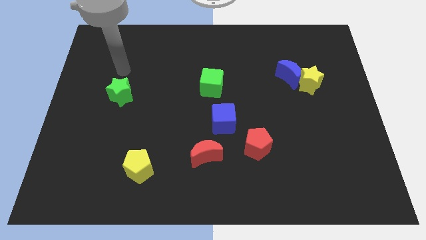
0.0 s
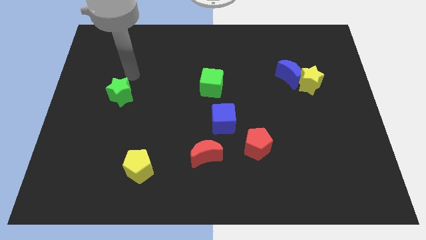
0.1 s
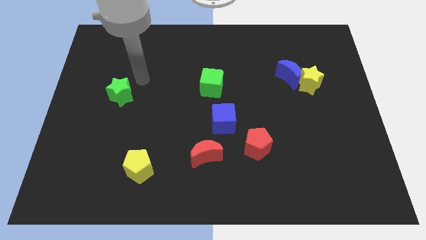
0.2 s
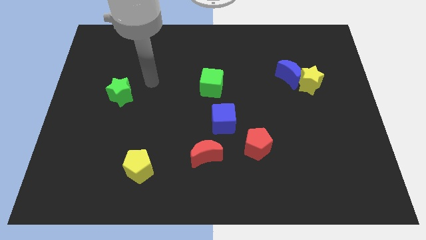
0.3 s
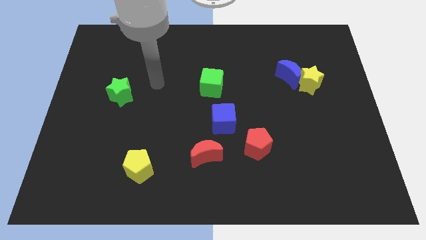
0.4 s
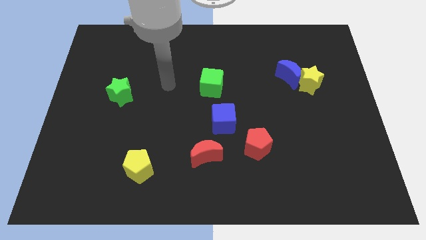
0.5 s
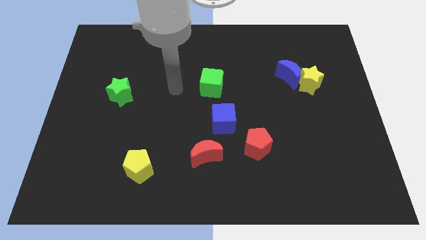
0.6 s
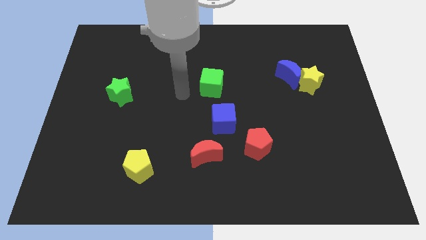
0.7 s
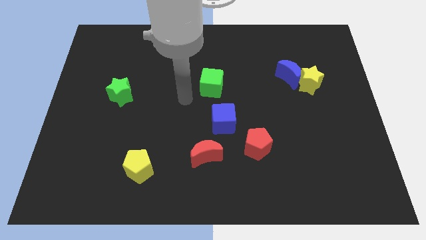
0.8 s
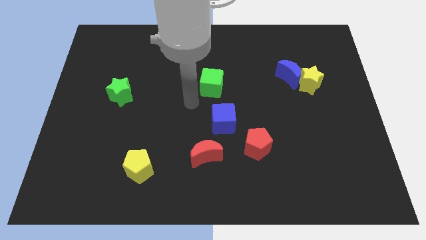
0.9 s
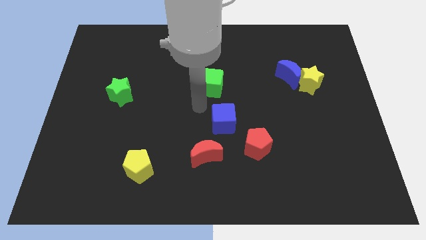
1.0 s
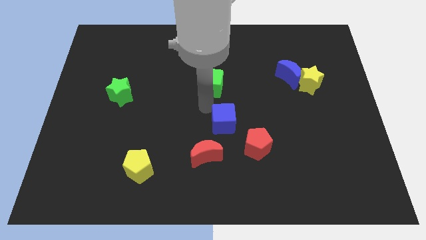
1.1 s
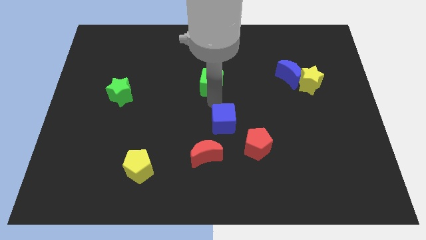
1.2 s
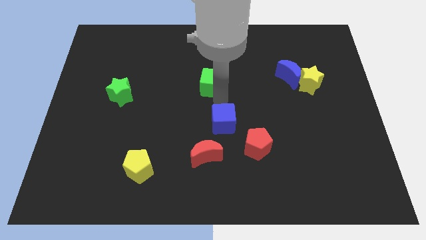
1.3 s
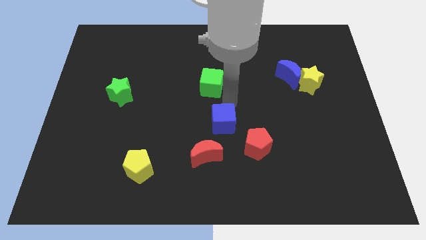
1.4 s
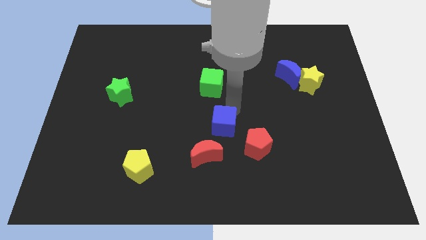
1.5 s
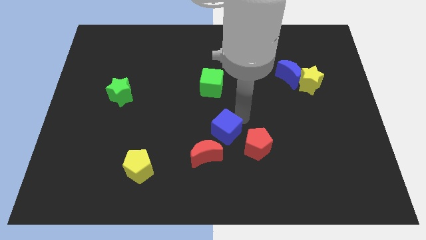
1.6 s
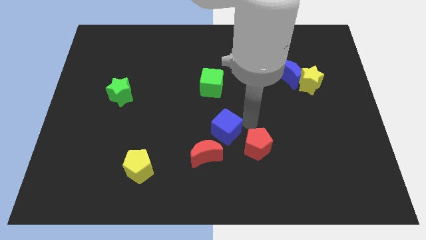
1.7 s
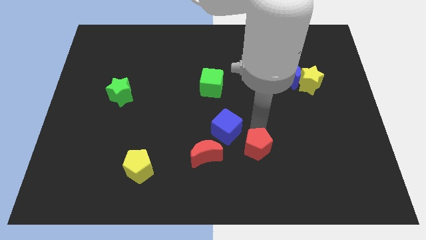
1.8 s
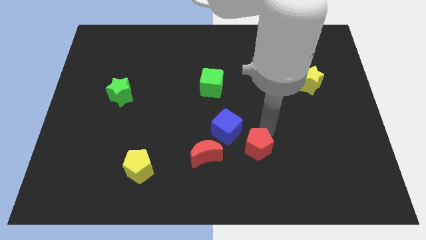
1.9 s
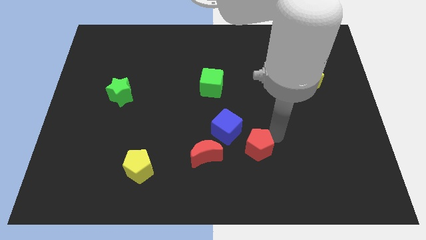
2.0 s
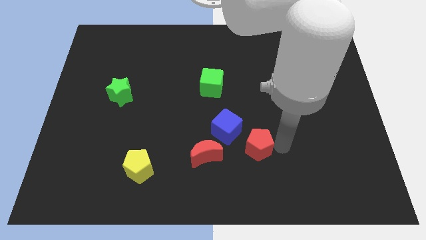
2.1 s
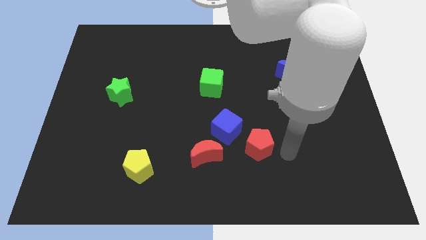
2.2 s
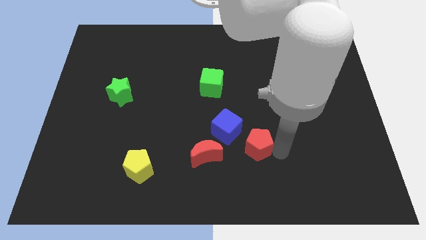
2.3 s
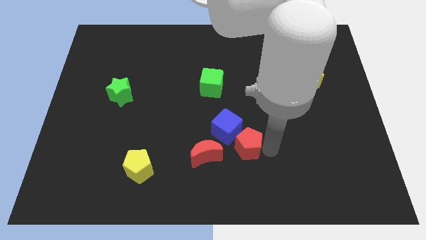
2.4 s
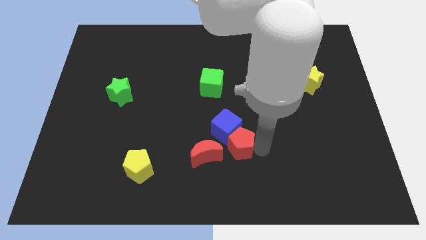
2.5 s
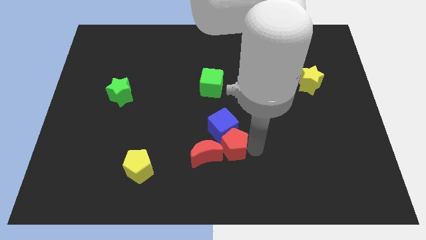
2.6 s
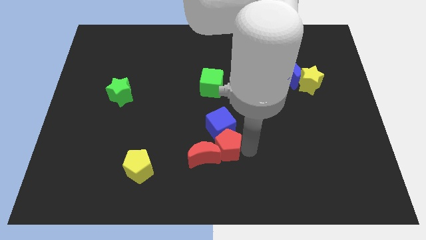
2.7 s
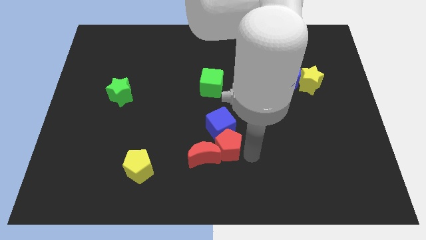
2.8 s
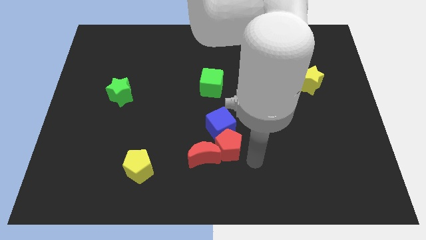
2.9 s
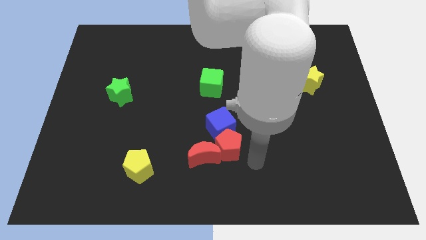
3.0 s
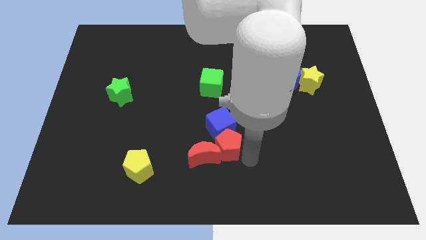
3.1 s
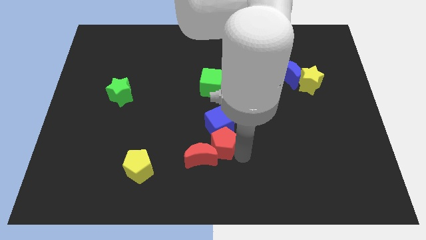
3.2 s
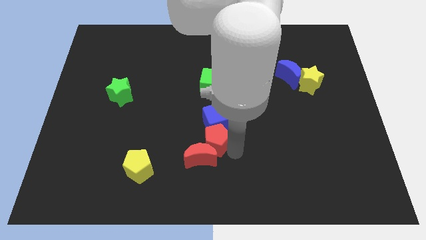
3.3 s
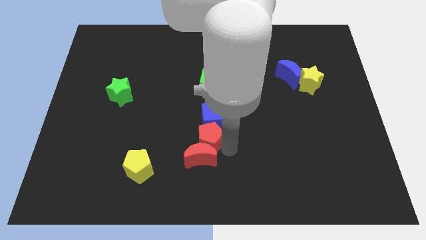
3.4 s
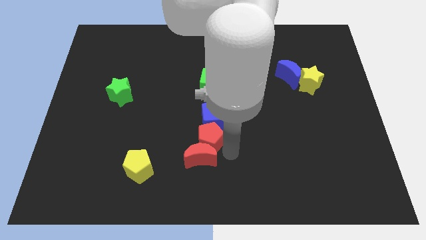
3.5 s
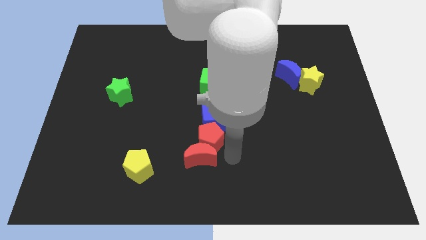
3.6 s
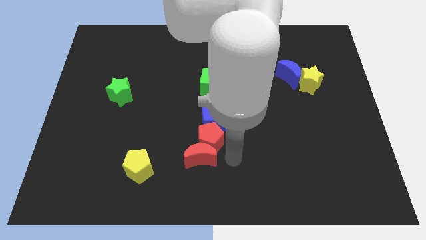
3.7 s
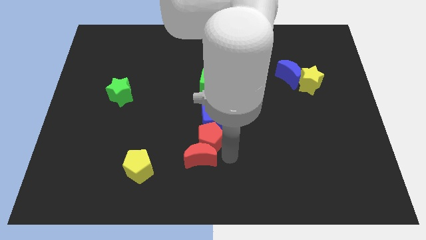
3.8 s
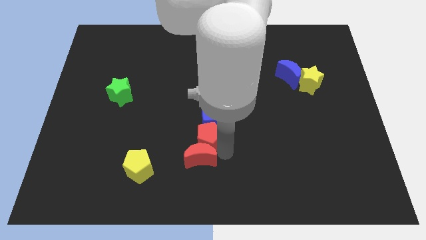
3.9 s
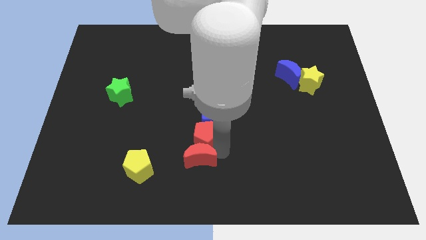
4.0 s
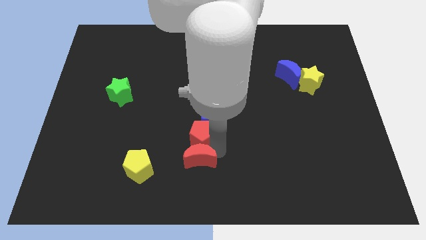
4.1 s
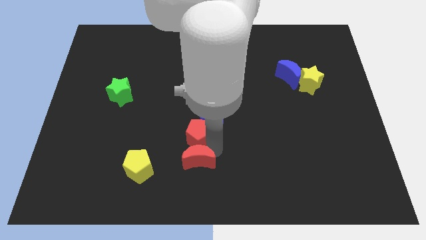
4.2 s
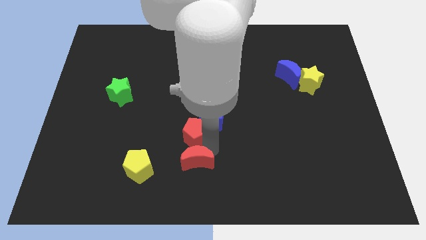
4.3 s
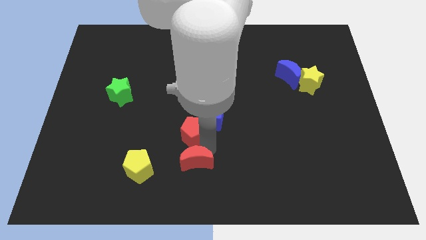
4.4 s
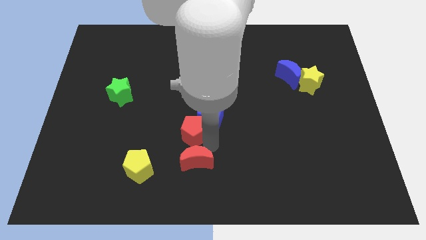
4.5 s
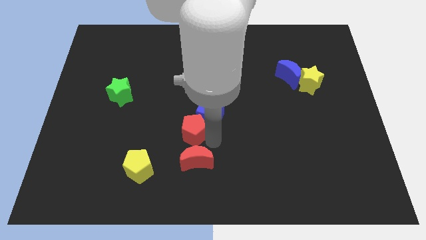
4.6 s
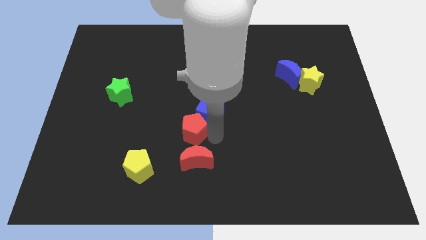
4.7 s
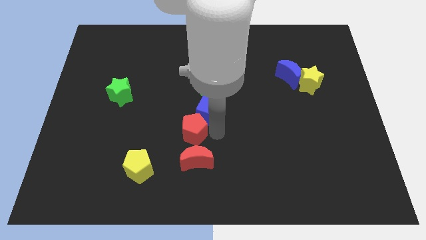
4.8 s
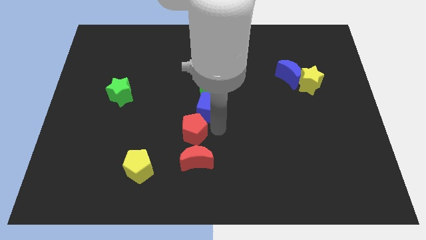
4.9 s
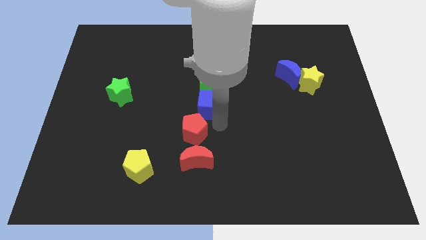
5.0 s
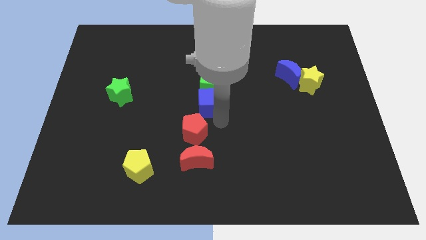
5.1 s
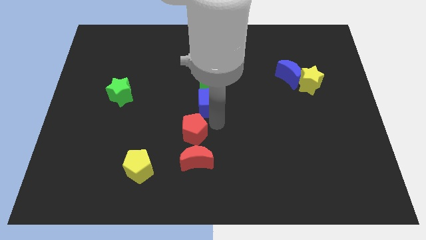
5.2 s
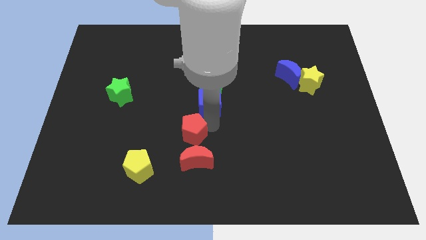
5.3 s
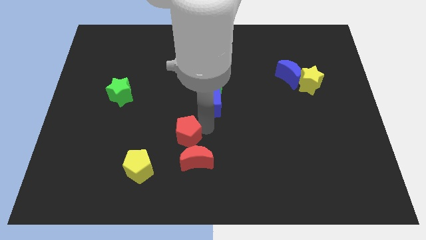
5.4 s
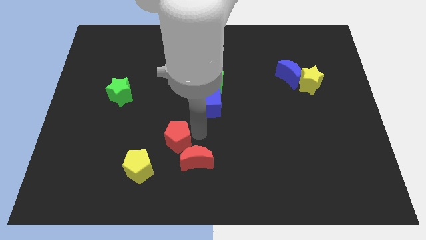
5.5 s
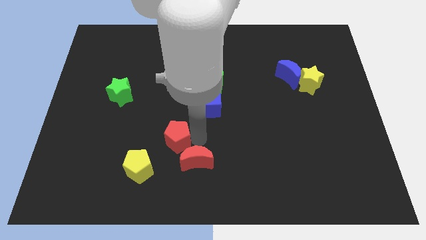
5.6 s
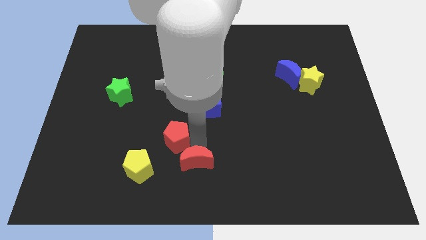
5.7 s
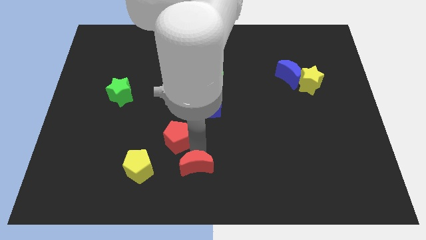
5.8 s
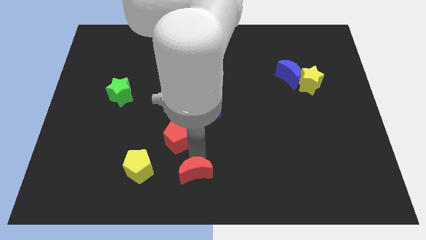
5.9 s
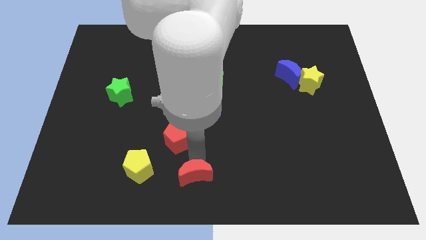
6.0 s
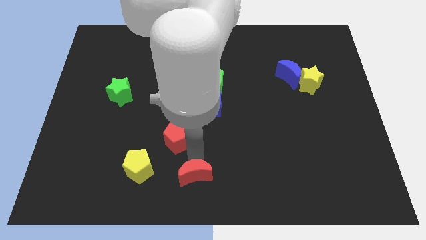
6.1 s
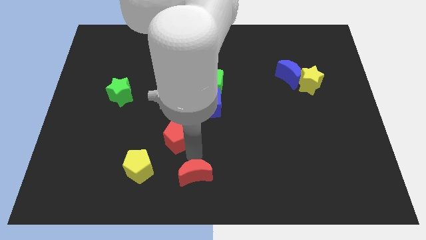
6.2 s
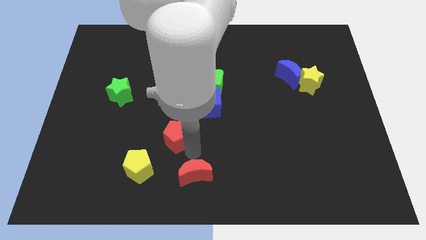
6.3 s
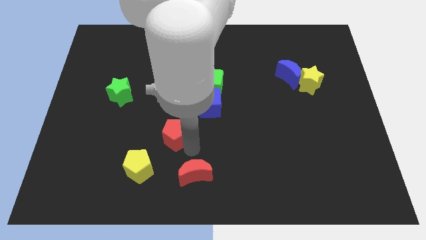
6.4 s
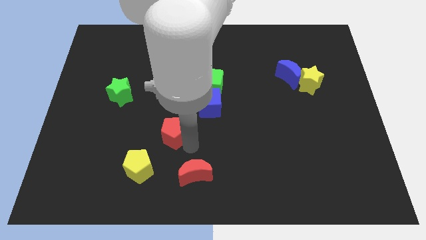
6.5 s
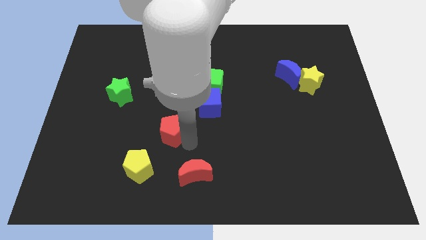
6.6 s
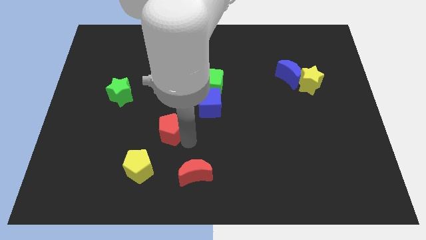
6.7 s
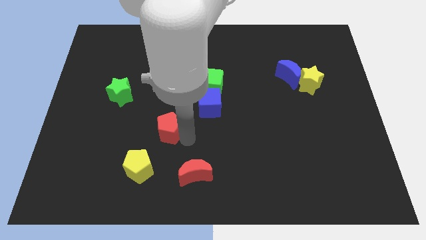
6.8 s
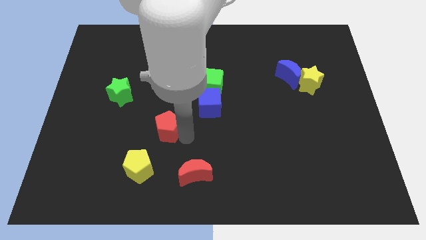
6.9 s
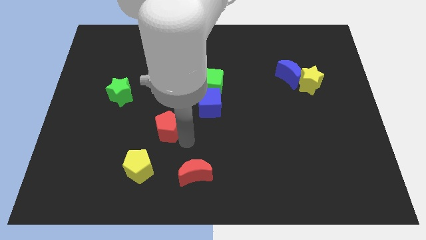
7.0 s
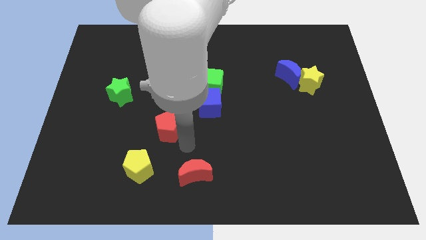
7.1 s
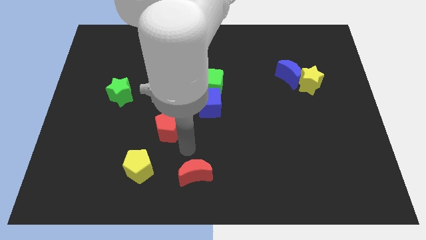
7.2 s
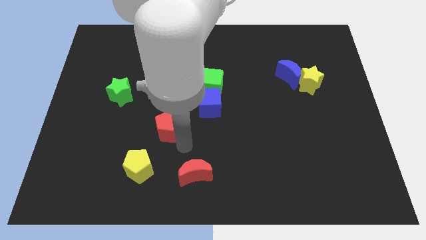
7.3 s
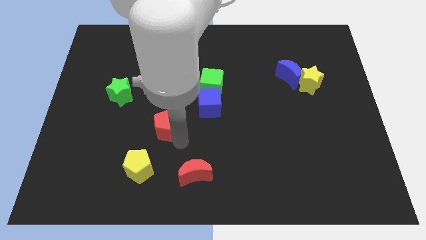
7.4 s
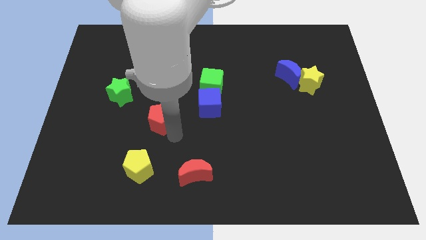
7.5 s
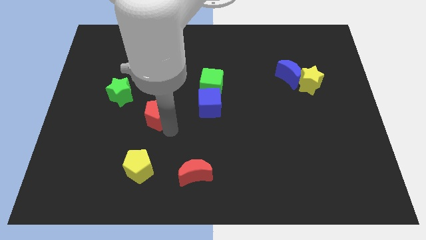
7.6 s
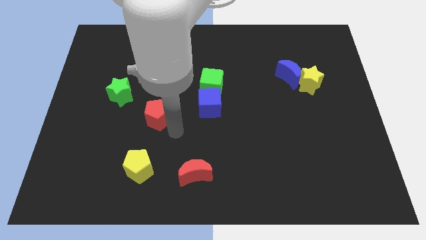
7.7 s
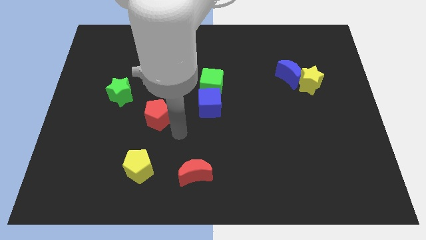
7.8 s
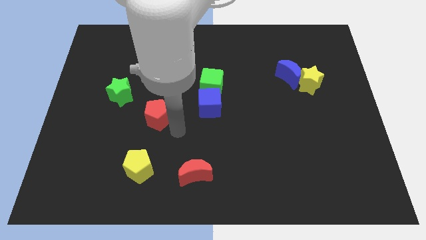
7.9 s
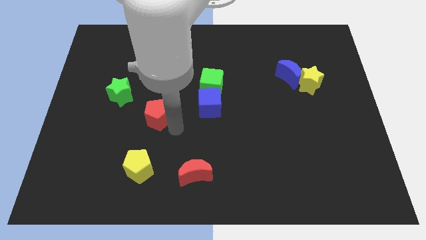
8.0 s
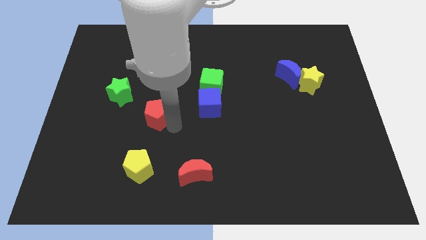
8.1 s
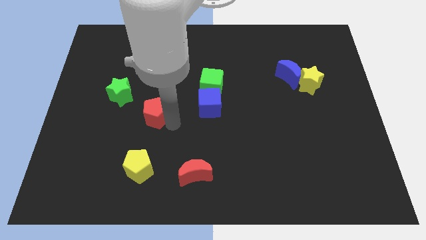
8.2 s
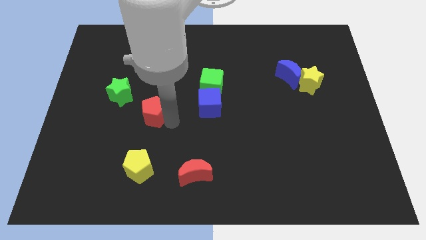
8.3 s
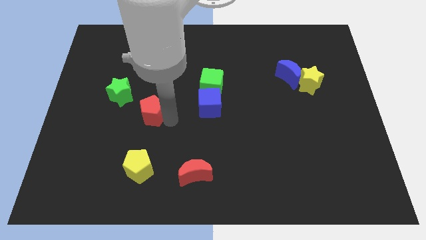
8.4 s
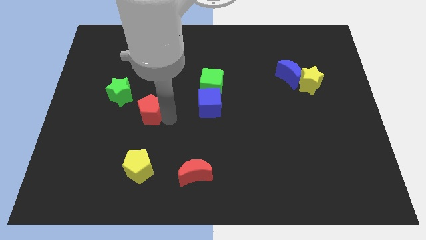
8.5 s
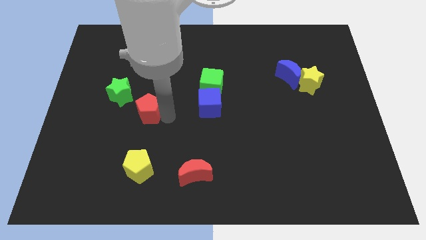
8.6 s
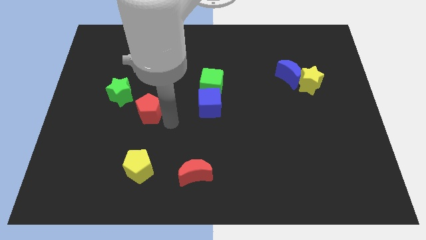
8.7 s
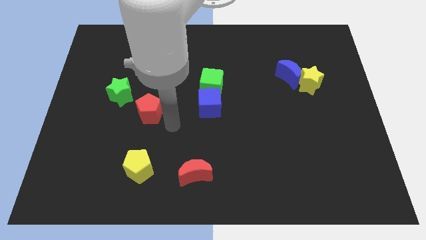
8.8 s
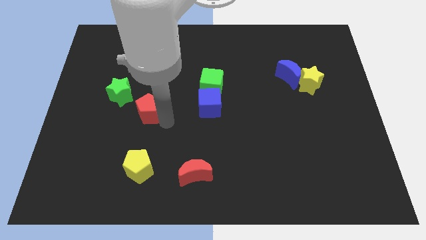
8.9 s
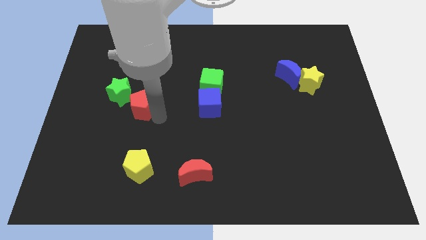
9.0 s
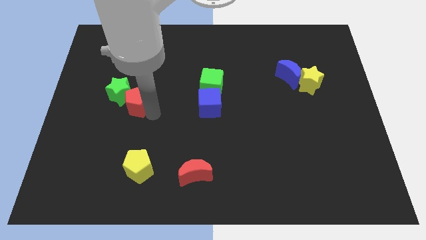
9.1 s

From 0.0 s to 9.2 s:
move the red pentagon towards the green star
